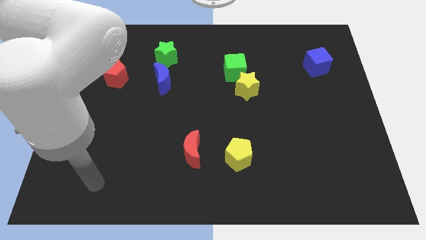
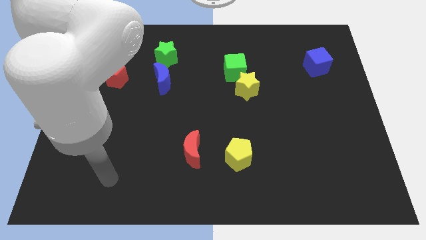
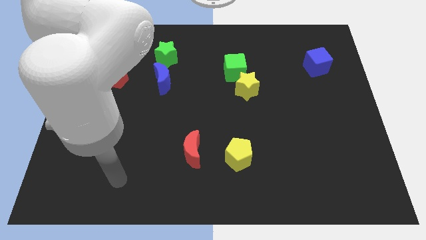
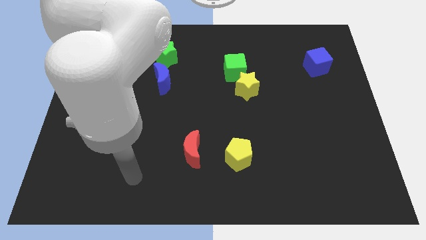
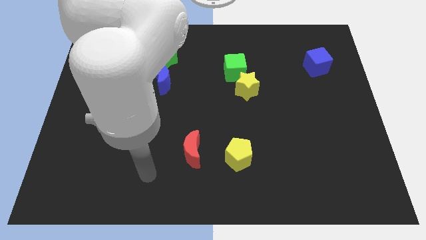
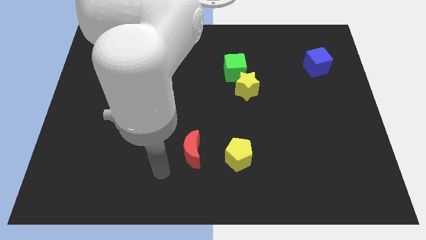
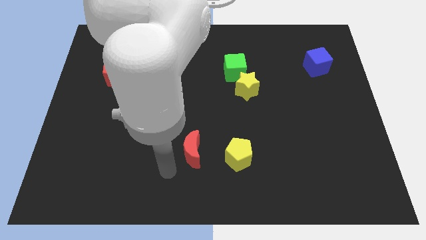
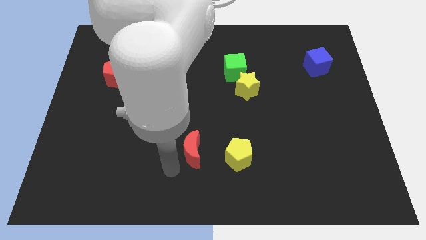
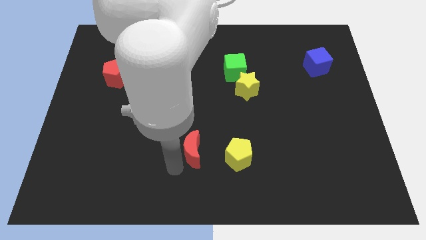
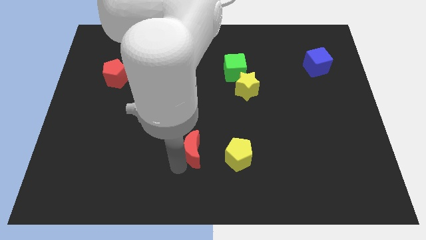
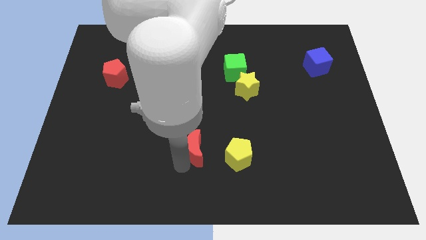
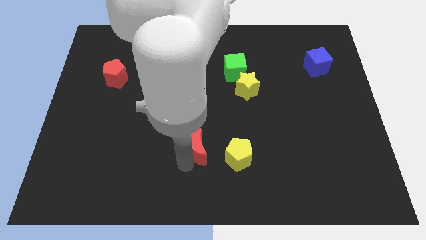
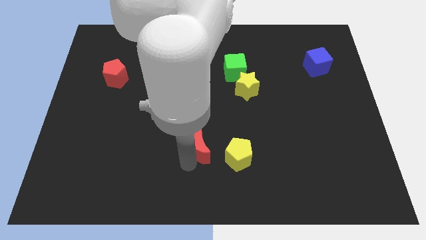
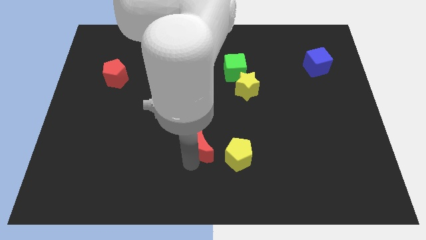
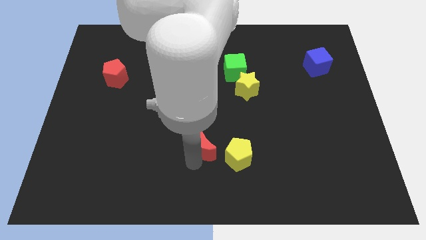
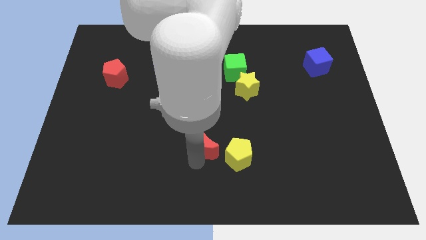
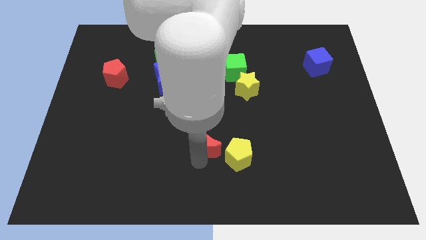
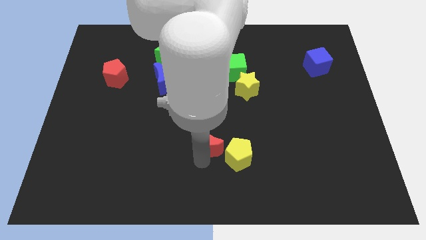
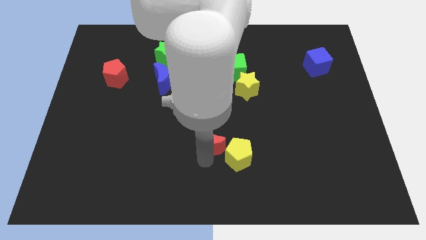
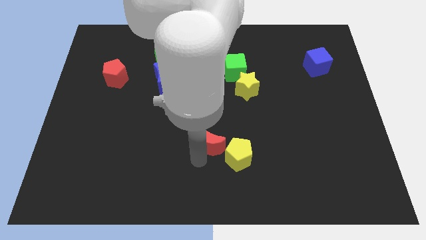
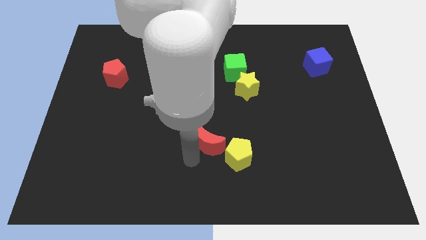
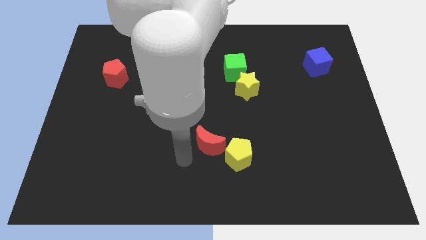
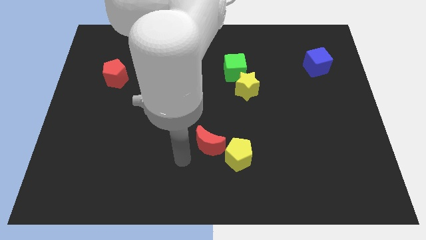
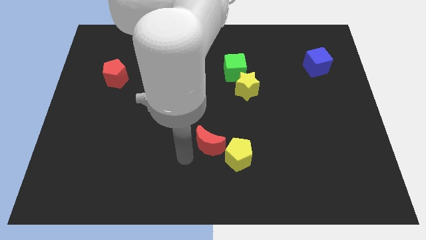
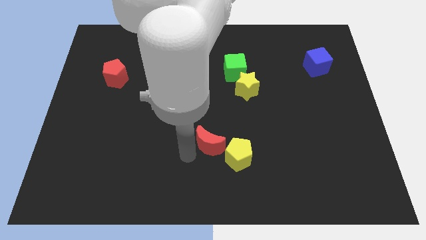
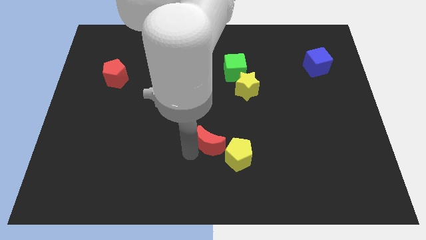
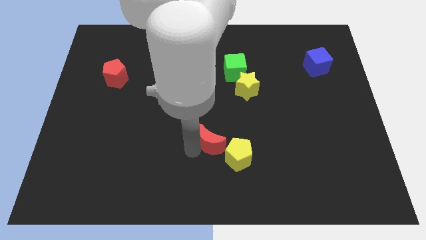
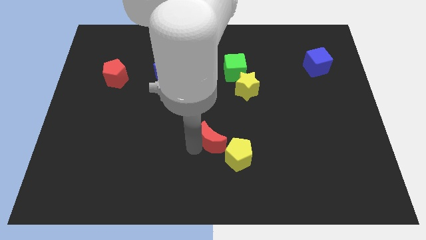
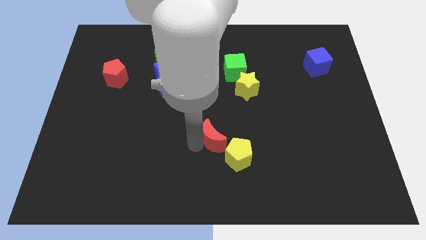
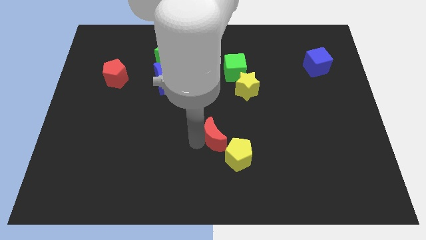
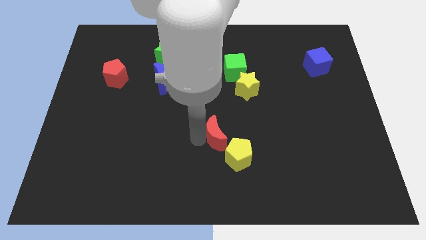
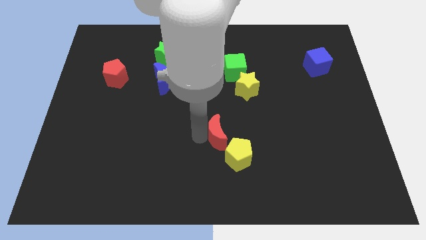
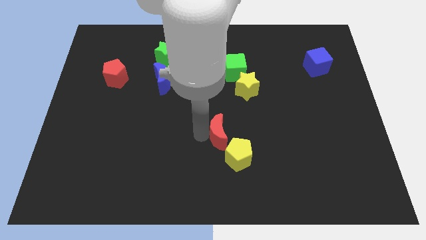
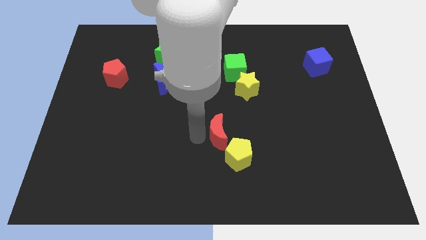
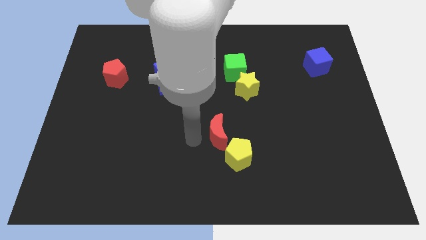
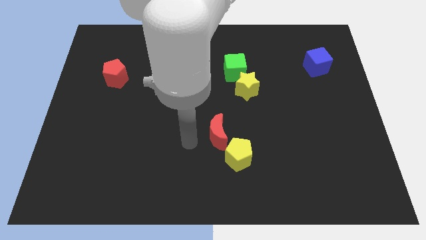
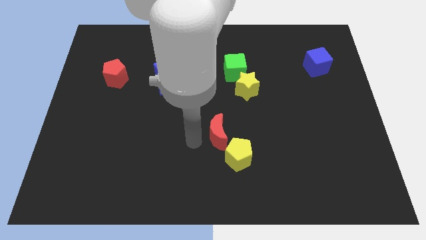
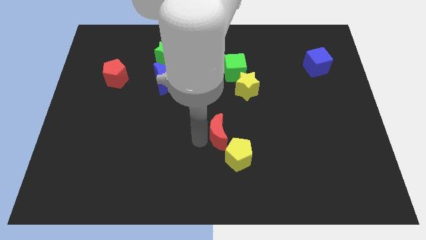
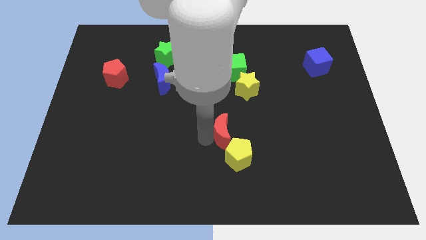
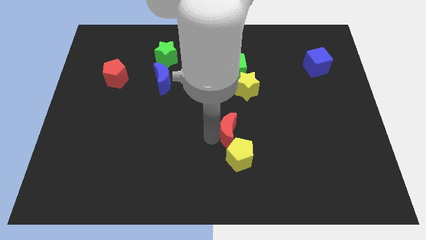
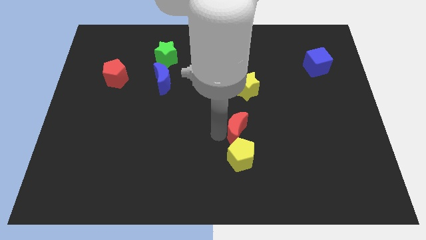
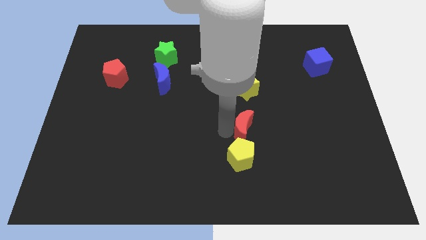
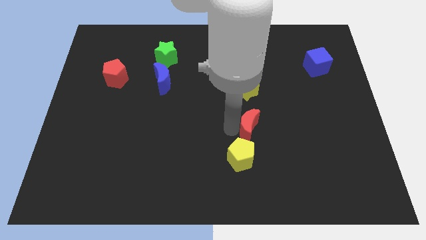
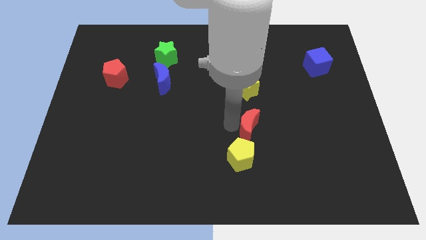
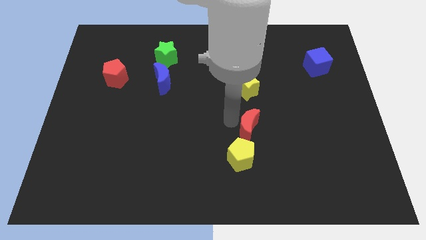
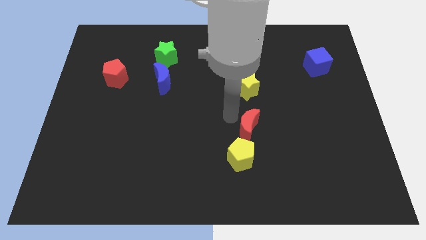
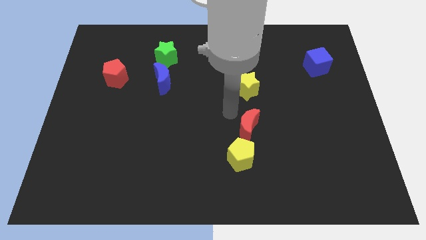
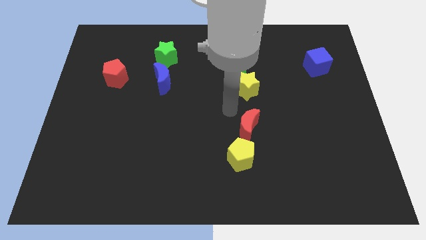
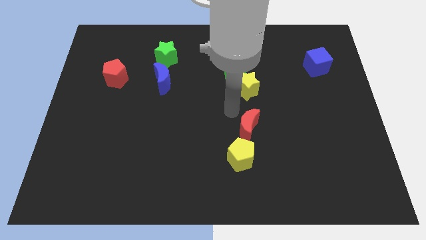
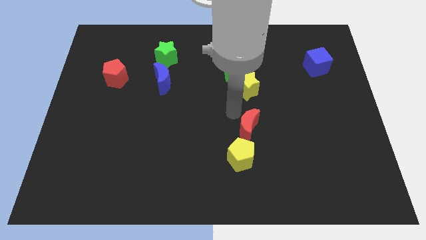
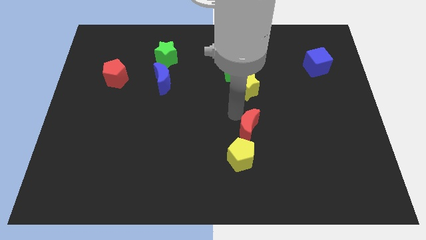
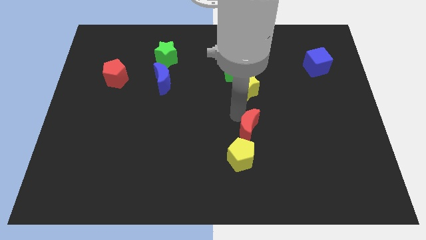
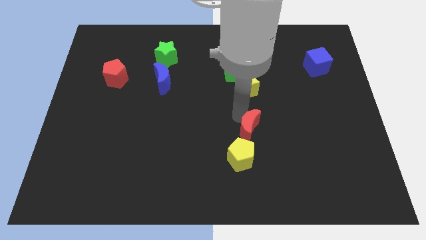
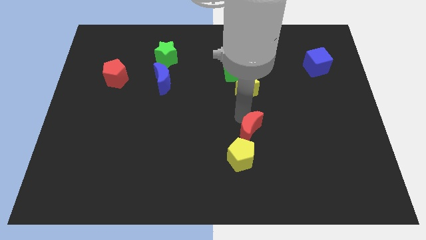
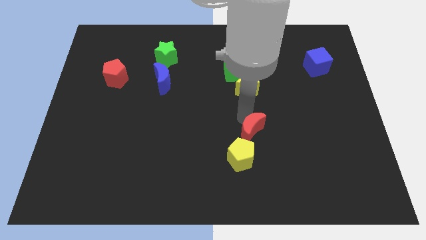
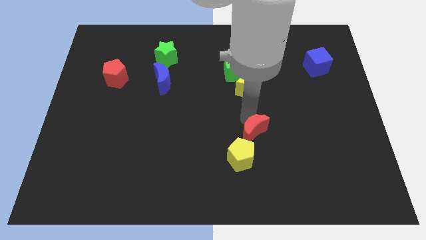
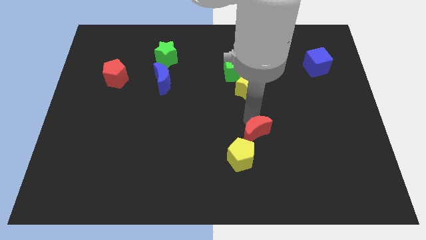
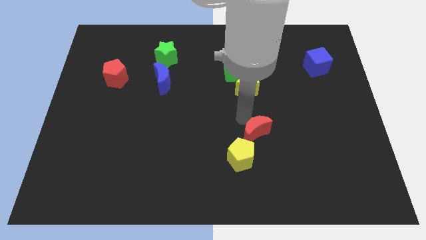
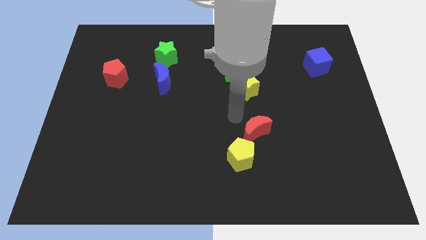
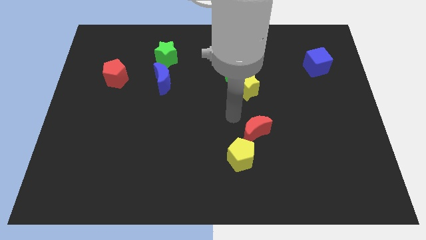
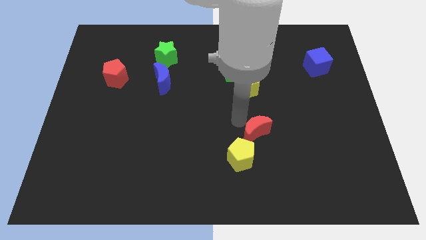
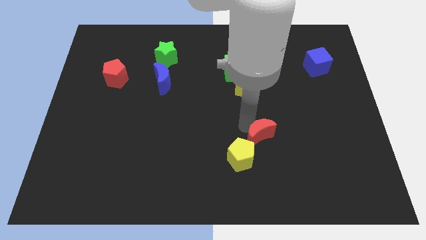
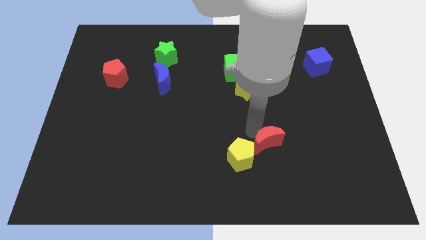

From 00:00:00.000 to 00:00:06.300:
push the red moon just right of the yellow pentagon
